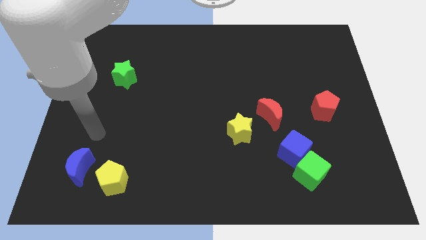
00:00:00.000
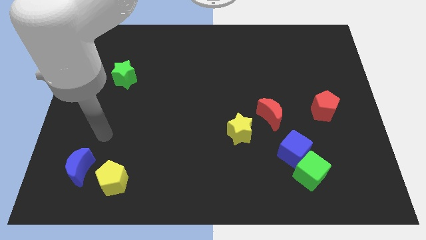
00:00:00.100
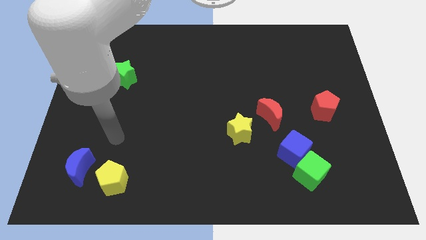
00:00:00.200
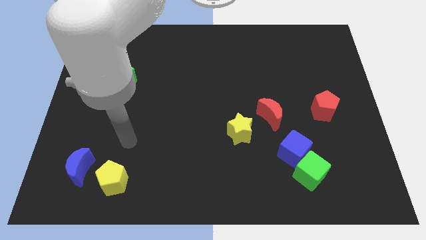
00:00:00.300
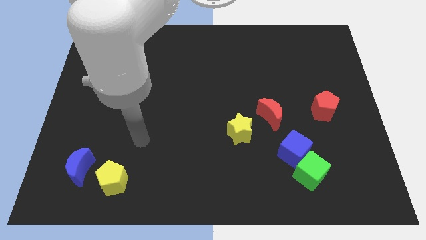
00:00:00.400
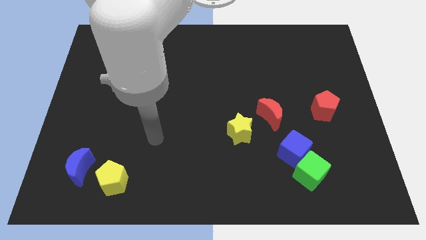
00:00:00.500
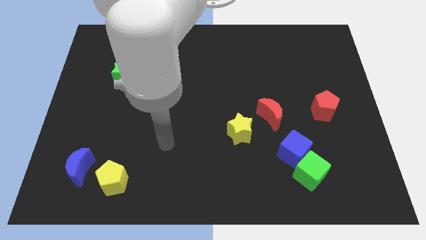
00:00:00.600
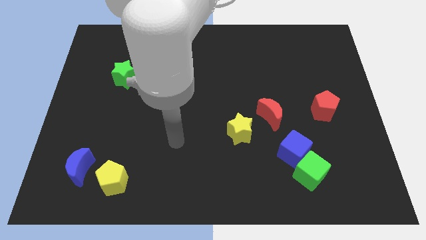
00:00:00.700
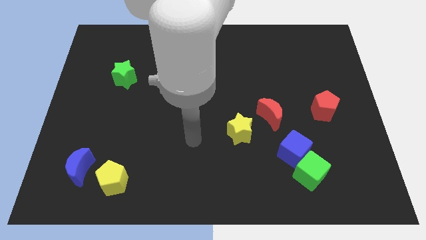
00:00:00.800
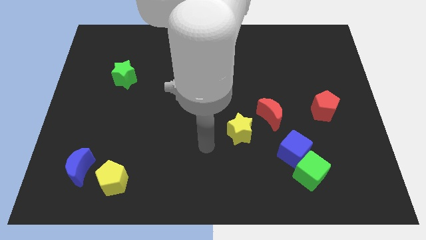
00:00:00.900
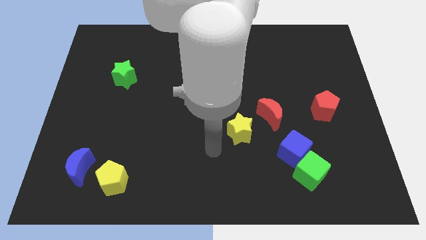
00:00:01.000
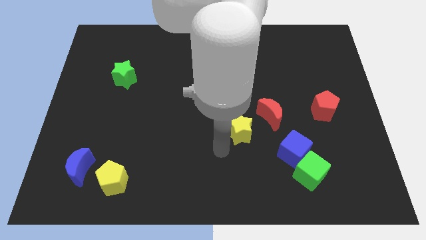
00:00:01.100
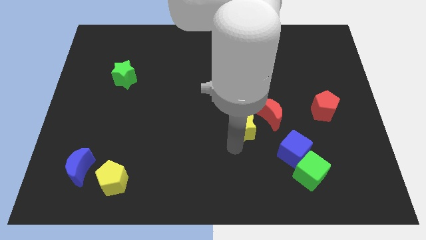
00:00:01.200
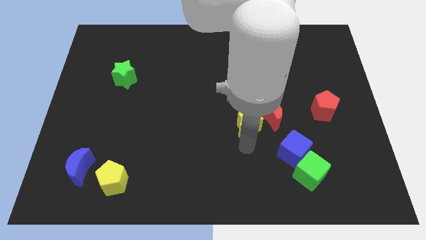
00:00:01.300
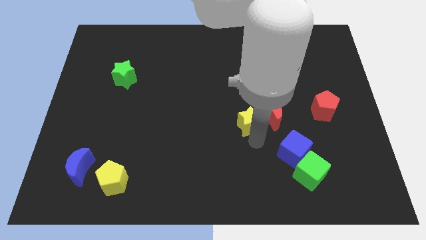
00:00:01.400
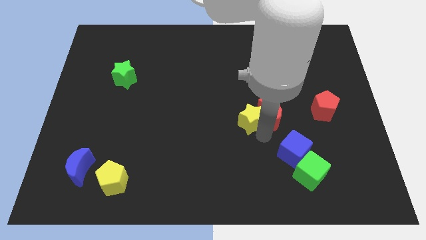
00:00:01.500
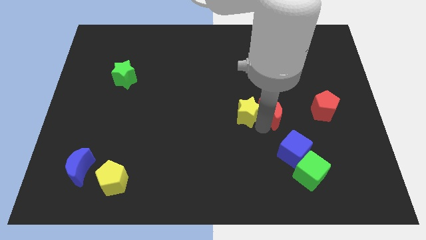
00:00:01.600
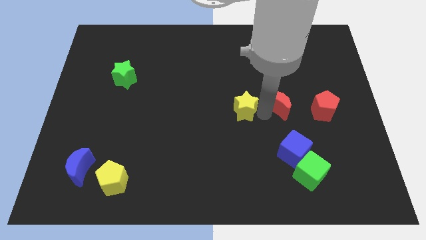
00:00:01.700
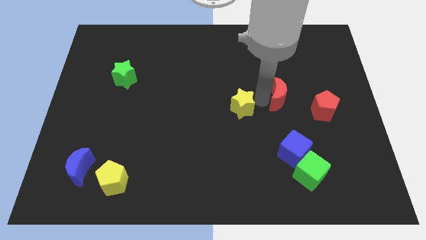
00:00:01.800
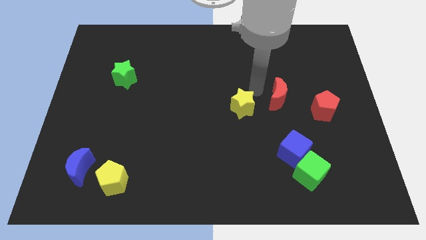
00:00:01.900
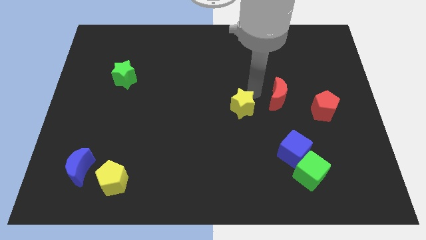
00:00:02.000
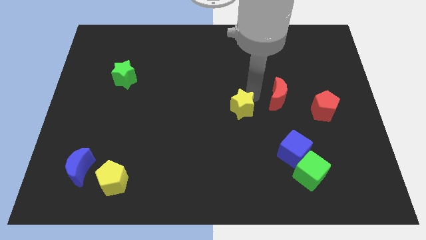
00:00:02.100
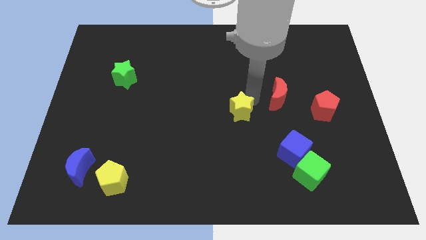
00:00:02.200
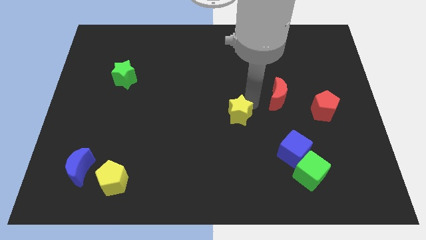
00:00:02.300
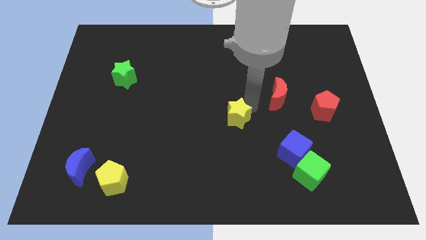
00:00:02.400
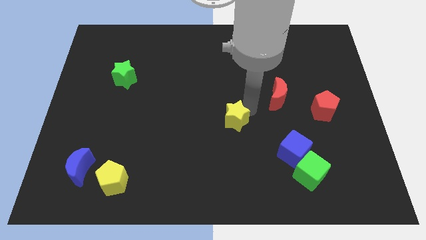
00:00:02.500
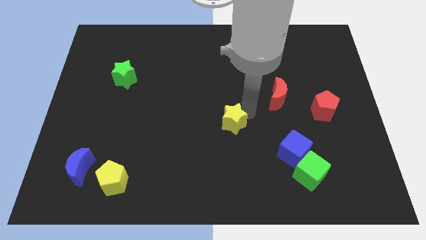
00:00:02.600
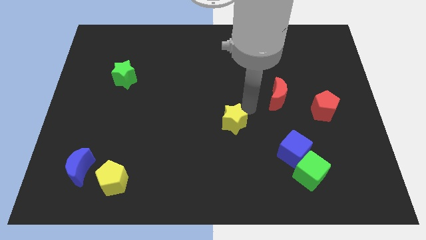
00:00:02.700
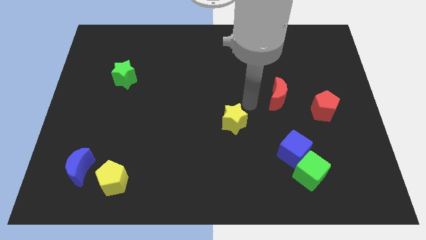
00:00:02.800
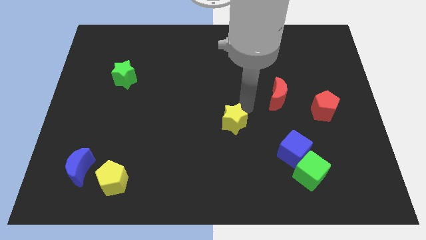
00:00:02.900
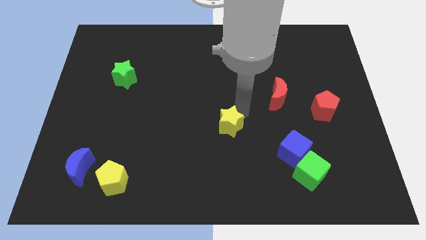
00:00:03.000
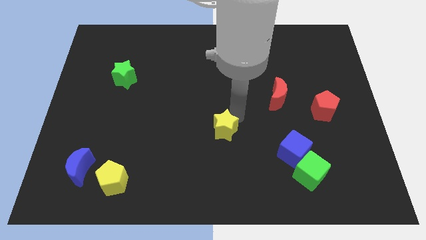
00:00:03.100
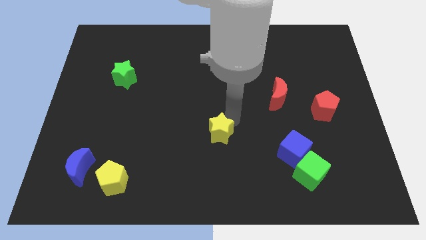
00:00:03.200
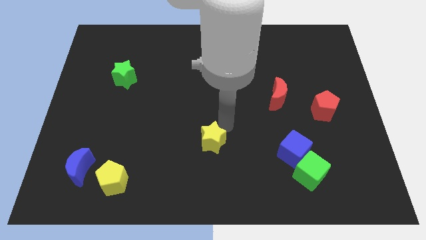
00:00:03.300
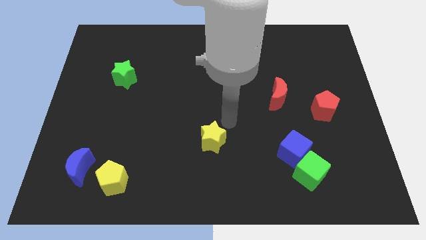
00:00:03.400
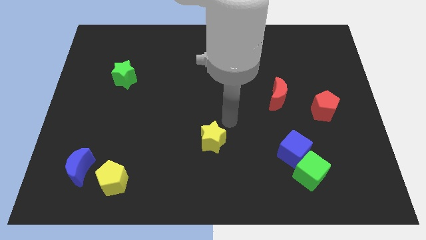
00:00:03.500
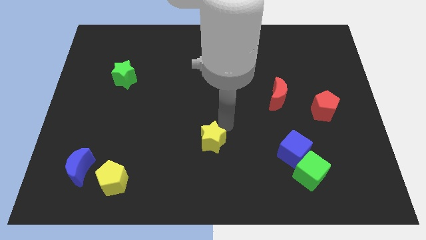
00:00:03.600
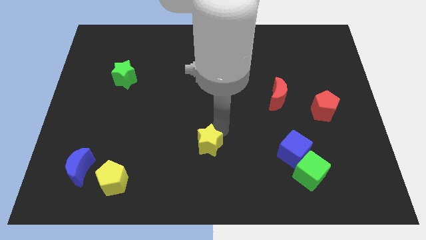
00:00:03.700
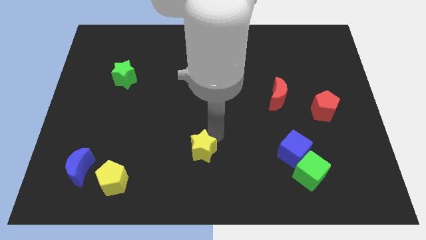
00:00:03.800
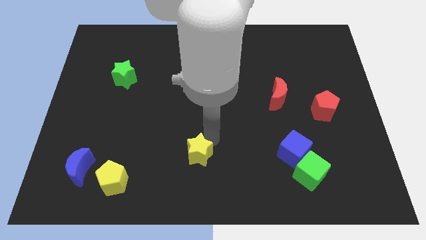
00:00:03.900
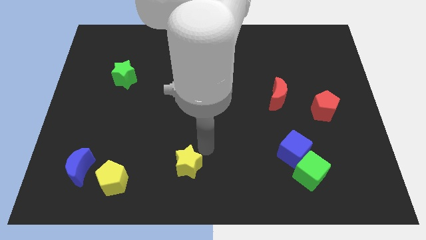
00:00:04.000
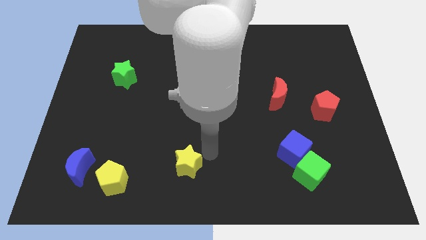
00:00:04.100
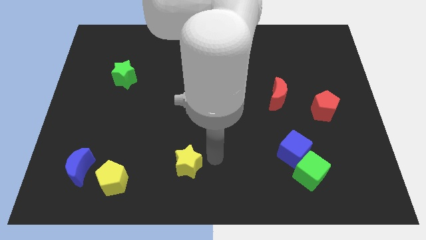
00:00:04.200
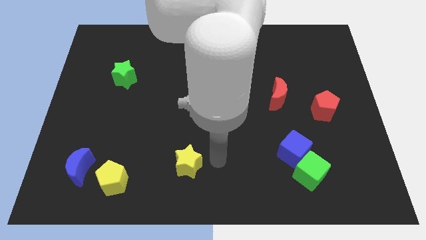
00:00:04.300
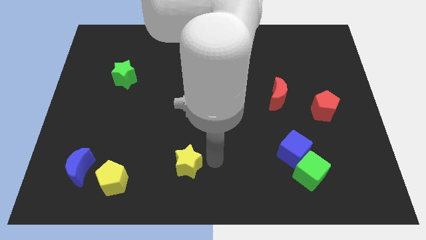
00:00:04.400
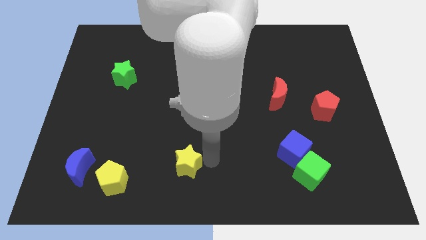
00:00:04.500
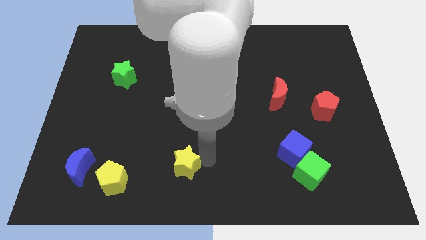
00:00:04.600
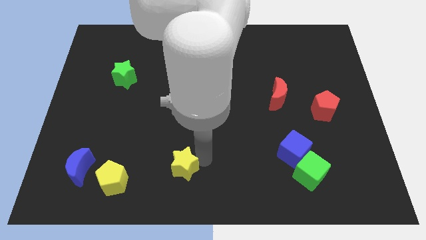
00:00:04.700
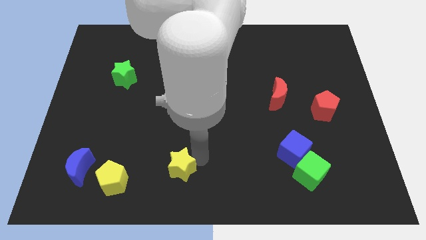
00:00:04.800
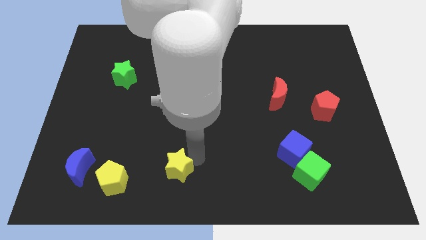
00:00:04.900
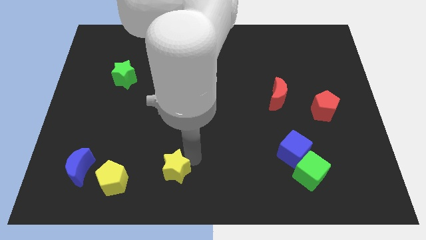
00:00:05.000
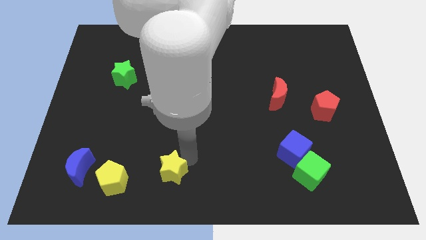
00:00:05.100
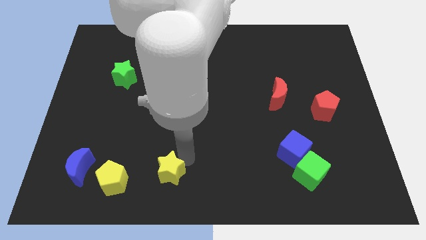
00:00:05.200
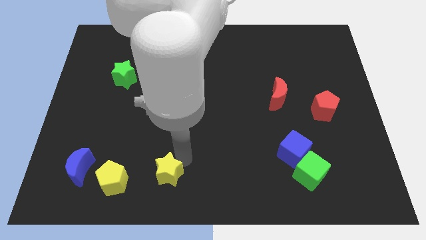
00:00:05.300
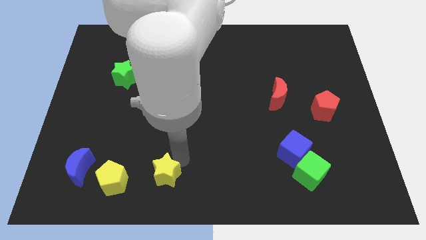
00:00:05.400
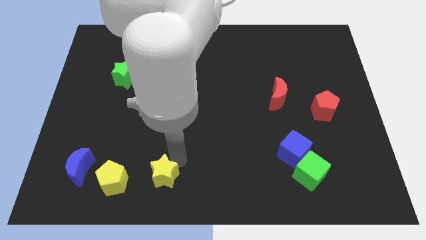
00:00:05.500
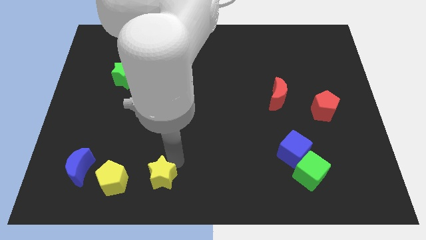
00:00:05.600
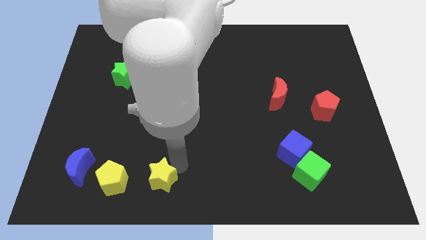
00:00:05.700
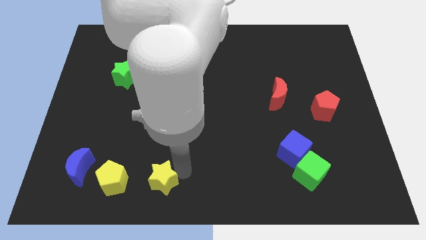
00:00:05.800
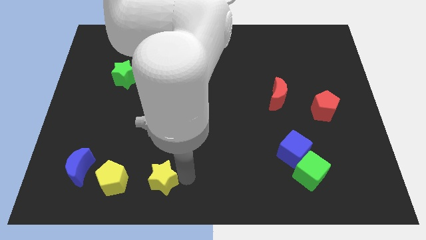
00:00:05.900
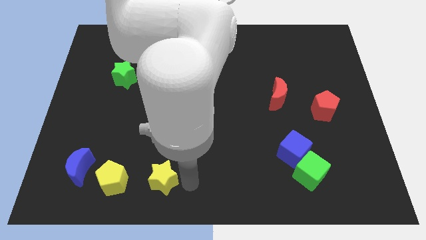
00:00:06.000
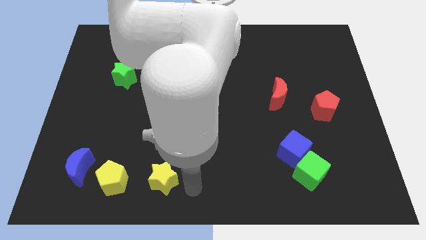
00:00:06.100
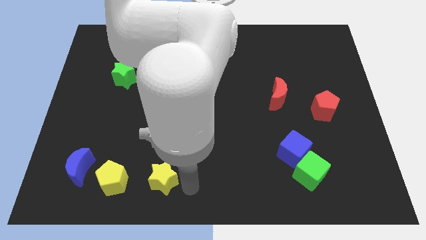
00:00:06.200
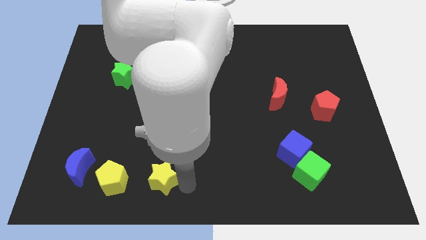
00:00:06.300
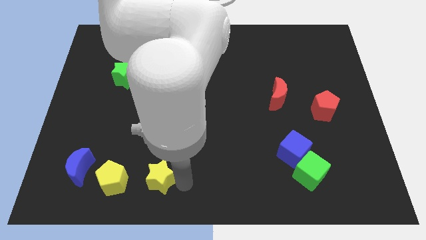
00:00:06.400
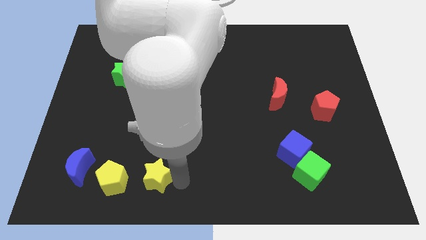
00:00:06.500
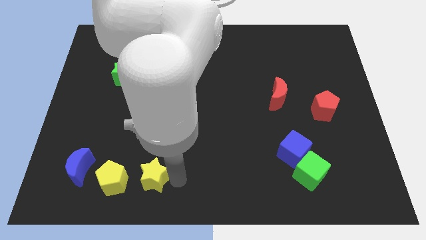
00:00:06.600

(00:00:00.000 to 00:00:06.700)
push the yellow star to the right side of the blue moon
